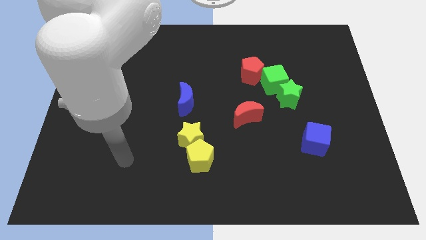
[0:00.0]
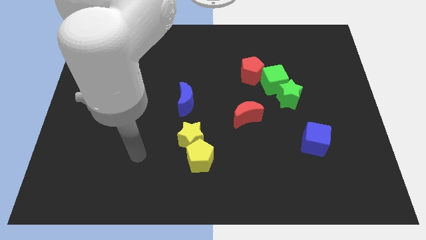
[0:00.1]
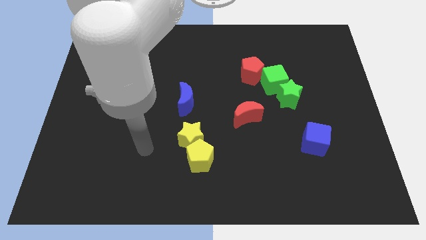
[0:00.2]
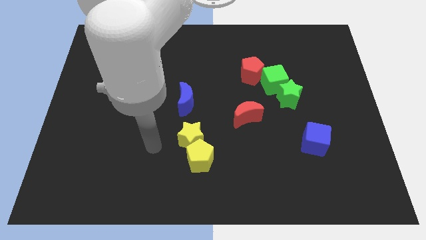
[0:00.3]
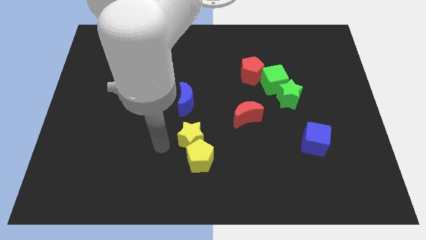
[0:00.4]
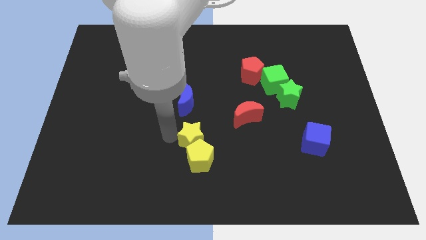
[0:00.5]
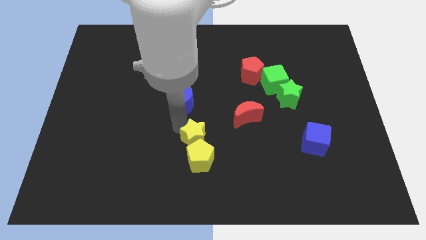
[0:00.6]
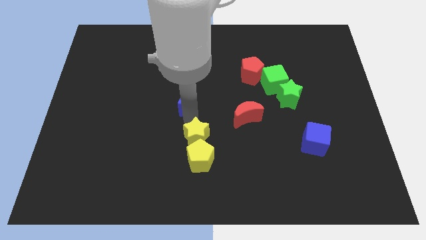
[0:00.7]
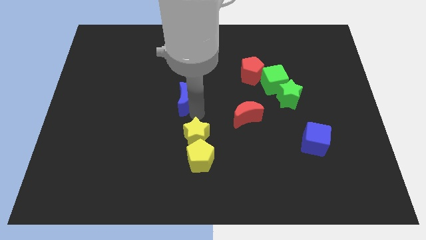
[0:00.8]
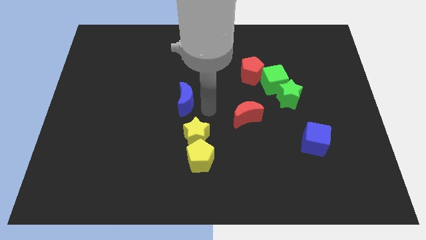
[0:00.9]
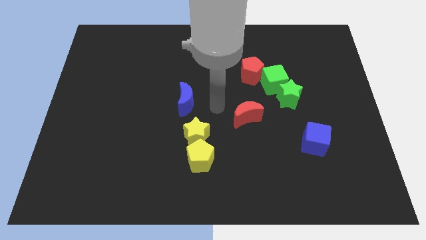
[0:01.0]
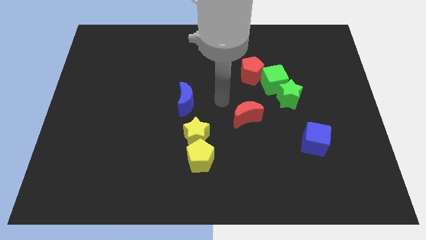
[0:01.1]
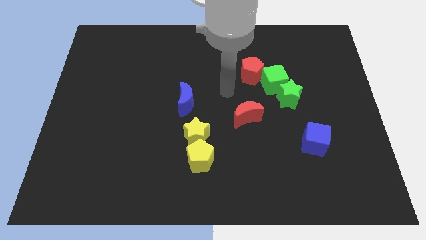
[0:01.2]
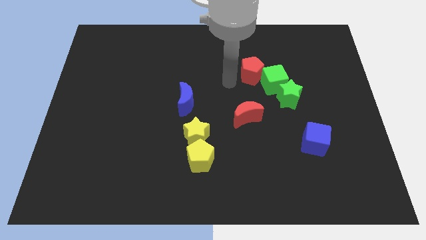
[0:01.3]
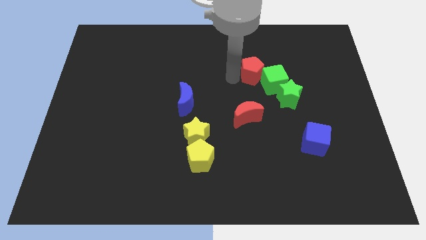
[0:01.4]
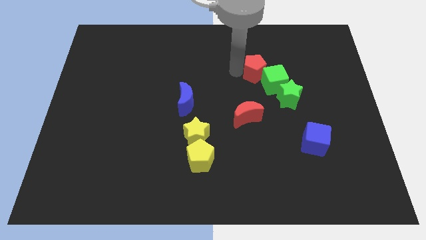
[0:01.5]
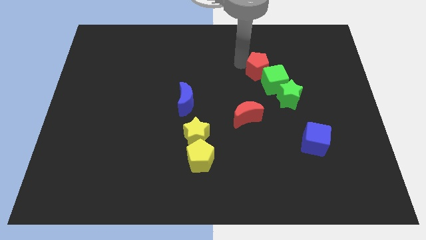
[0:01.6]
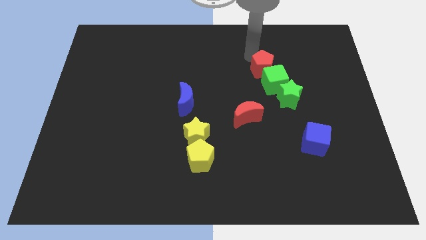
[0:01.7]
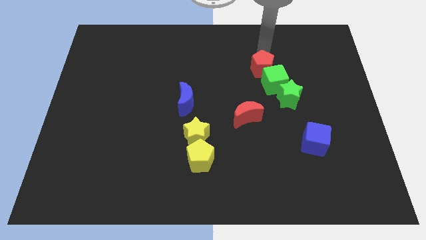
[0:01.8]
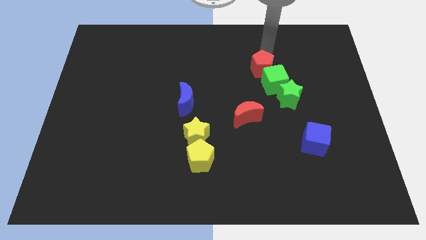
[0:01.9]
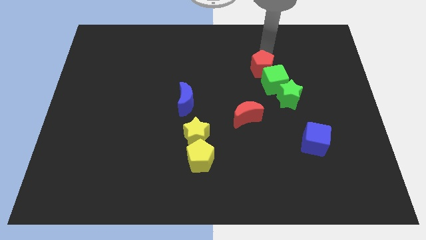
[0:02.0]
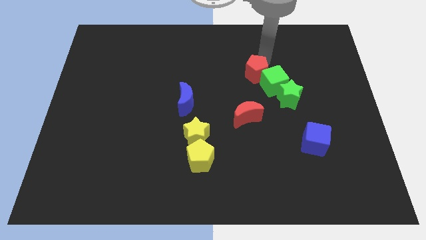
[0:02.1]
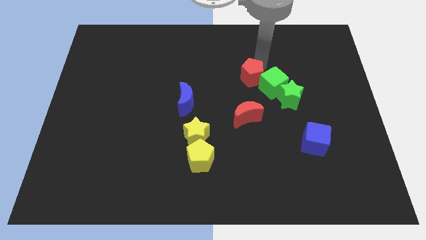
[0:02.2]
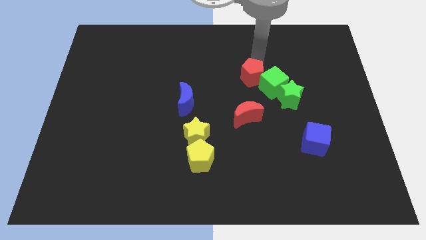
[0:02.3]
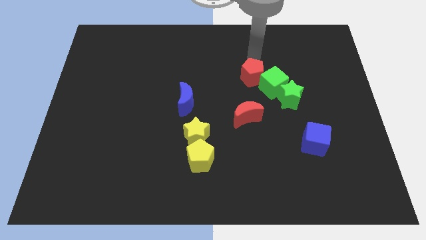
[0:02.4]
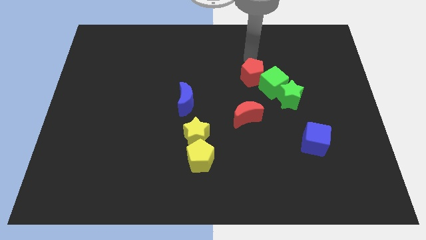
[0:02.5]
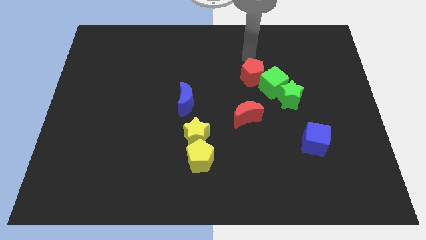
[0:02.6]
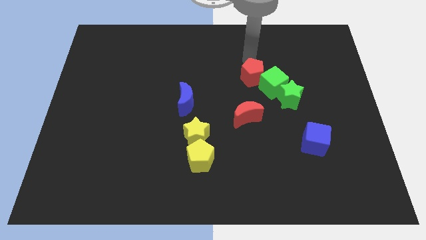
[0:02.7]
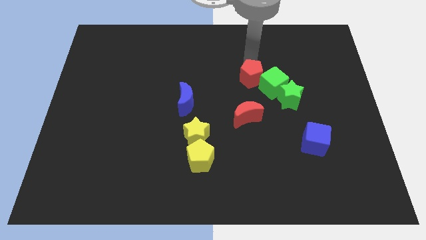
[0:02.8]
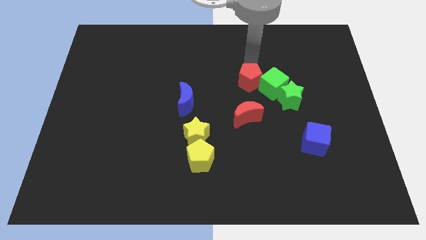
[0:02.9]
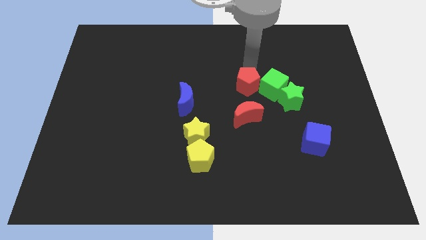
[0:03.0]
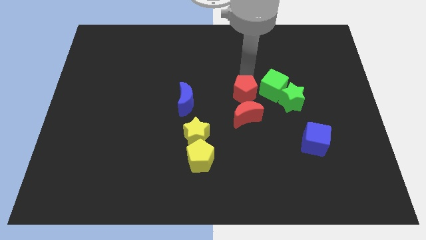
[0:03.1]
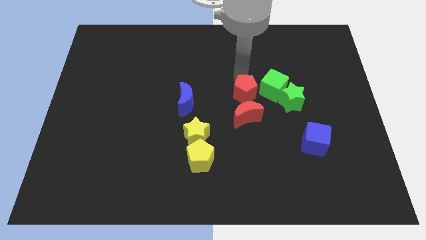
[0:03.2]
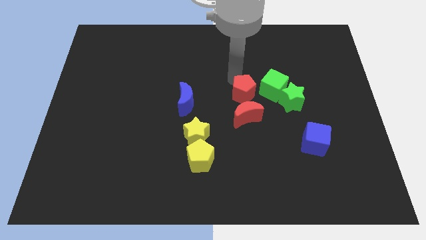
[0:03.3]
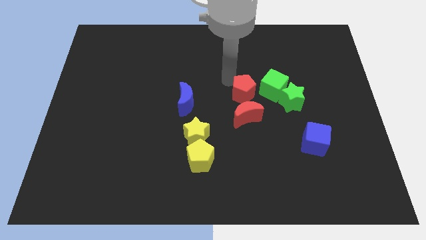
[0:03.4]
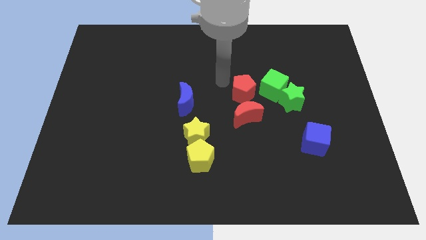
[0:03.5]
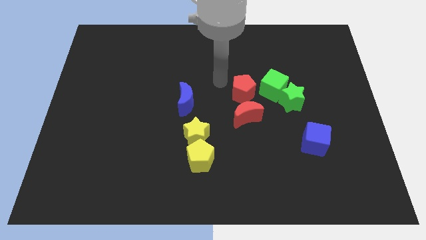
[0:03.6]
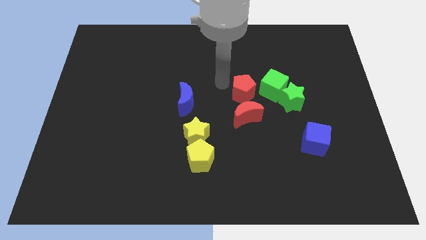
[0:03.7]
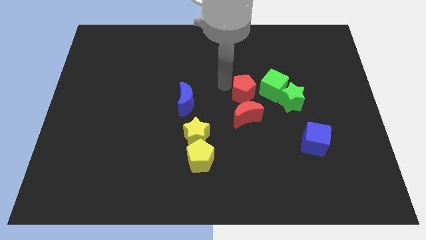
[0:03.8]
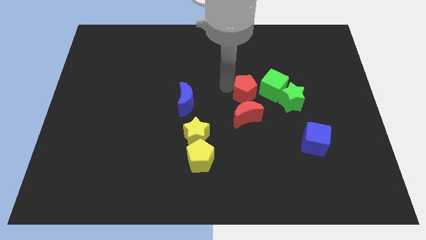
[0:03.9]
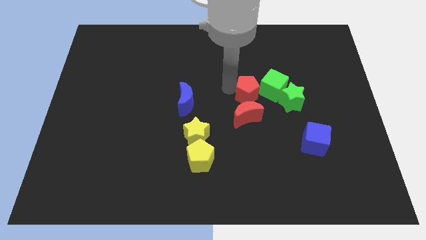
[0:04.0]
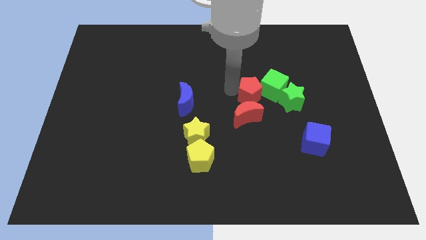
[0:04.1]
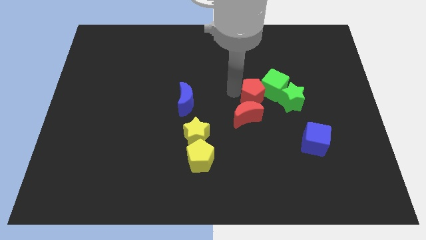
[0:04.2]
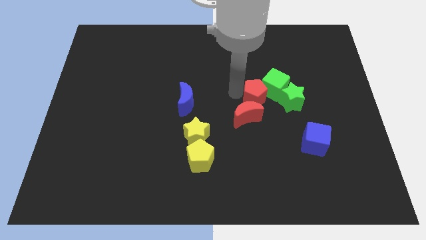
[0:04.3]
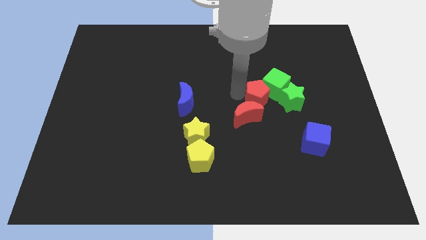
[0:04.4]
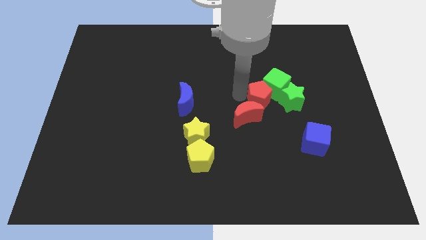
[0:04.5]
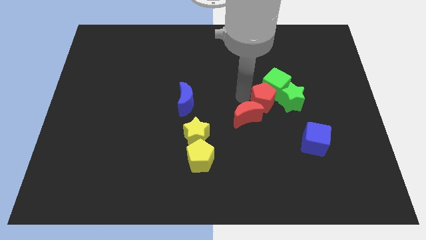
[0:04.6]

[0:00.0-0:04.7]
slide the red pentagon diagonally down and right a little

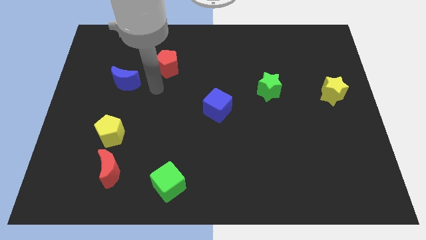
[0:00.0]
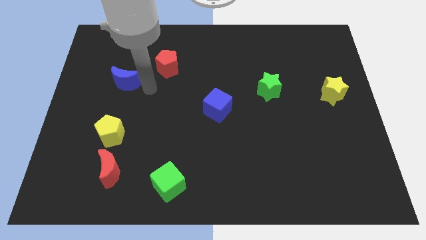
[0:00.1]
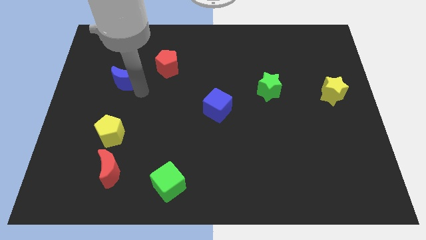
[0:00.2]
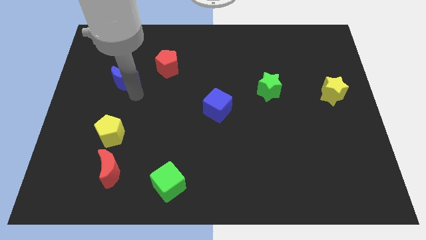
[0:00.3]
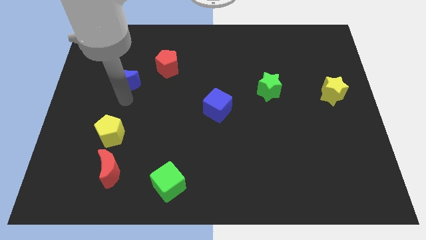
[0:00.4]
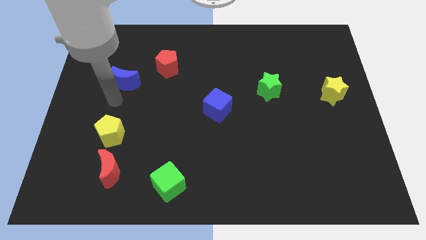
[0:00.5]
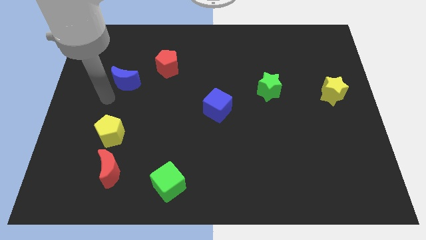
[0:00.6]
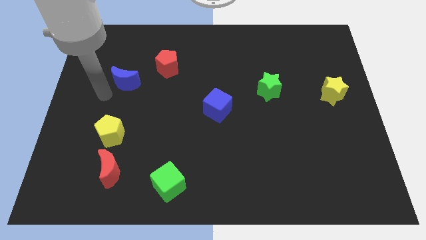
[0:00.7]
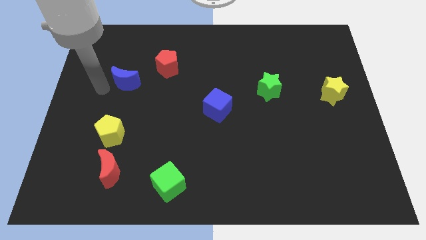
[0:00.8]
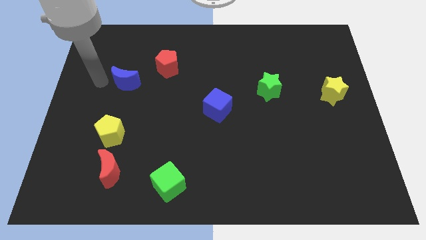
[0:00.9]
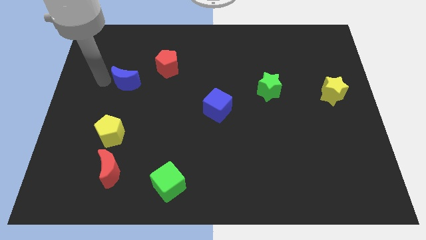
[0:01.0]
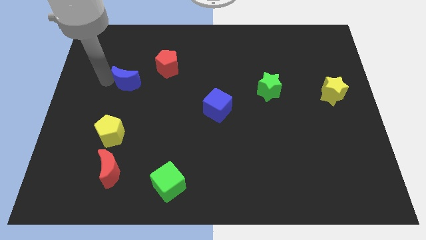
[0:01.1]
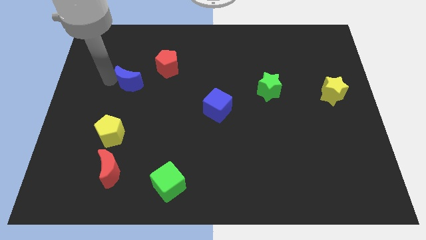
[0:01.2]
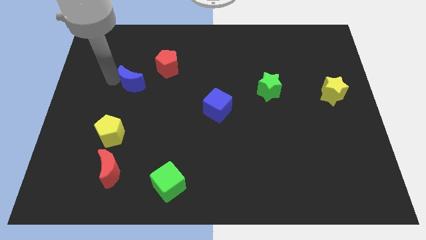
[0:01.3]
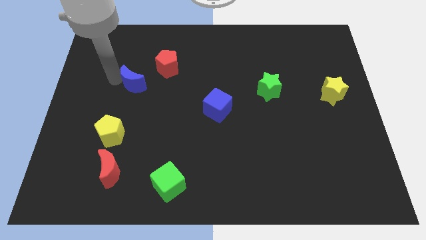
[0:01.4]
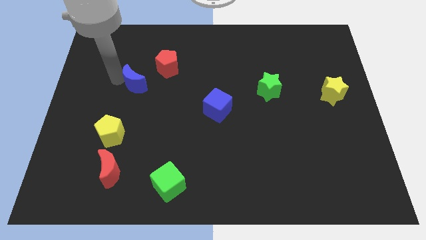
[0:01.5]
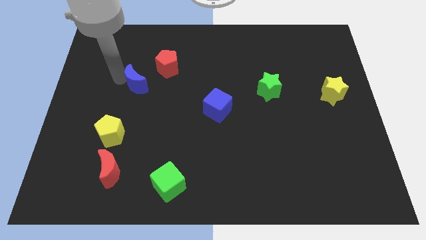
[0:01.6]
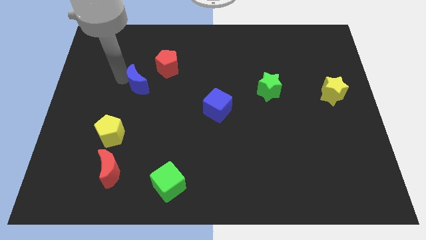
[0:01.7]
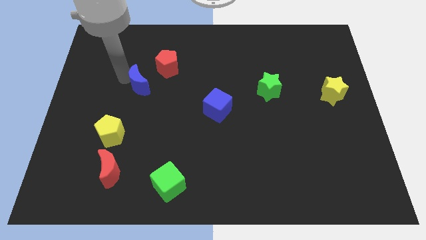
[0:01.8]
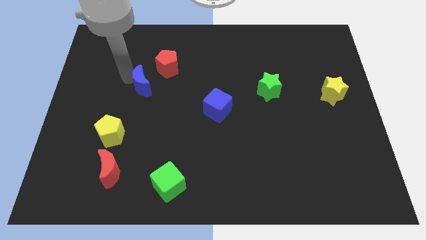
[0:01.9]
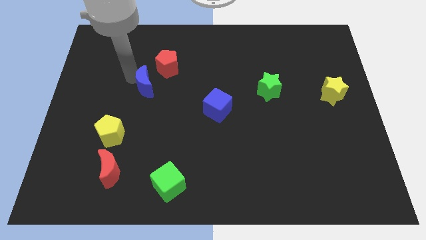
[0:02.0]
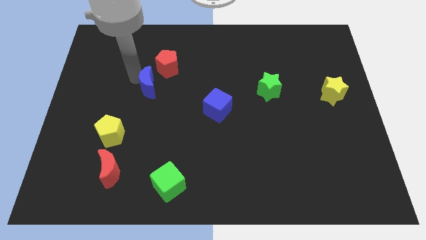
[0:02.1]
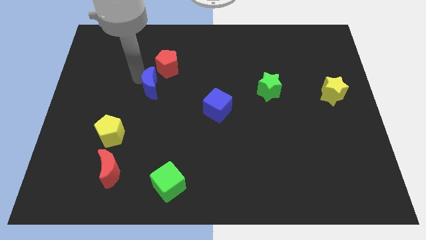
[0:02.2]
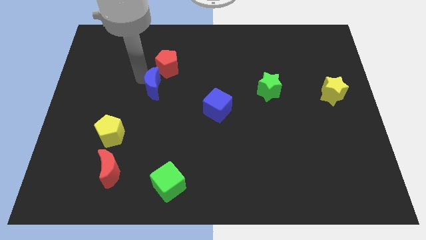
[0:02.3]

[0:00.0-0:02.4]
push the blue moon to the right a bit

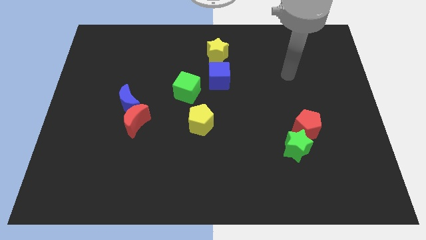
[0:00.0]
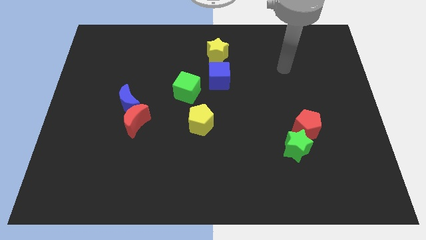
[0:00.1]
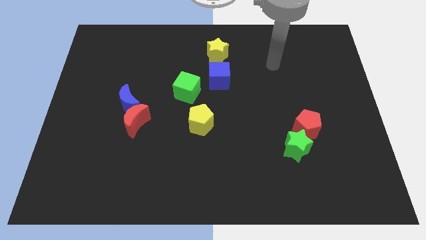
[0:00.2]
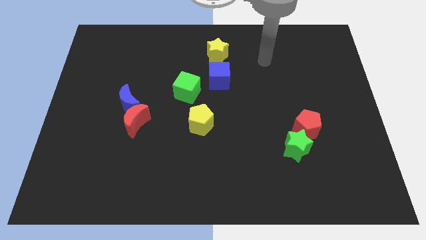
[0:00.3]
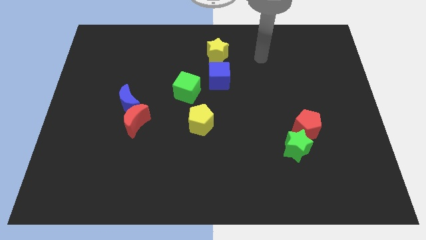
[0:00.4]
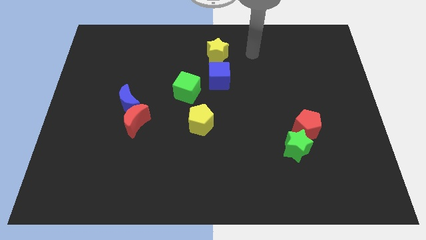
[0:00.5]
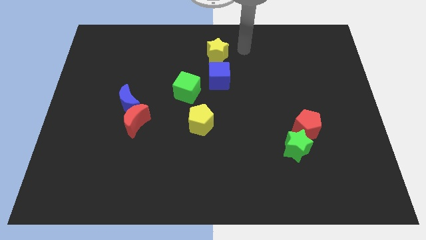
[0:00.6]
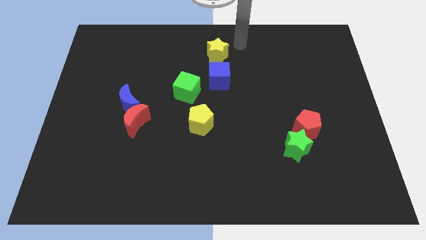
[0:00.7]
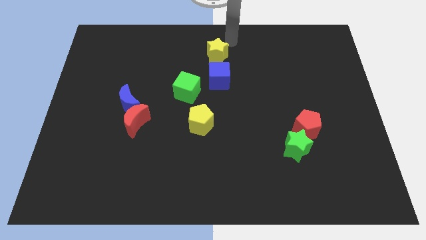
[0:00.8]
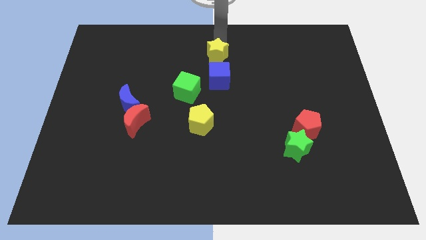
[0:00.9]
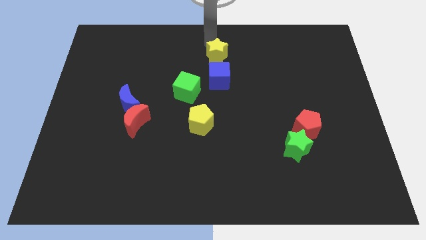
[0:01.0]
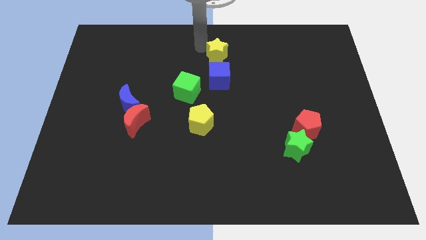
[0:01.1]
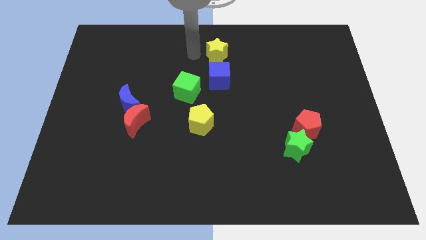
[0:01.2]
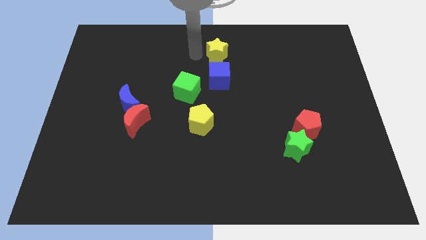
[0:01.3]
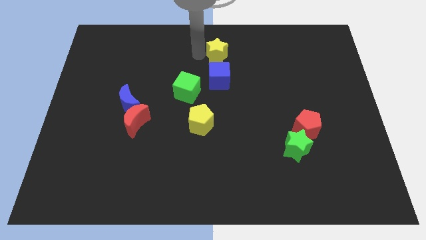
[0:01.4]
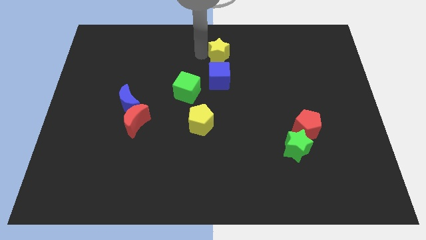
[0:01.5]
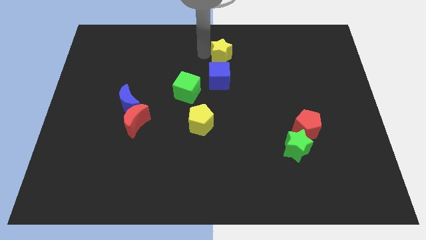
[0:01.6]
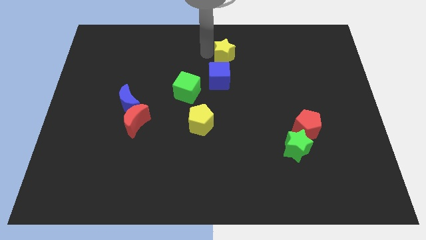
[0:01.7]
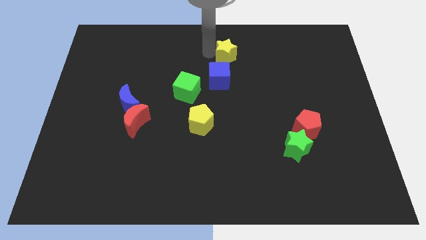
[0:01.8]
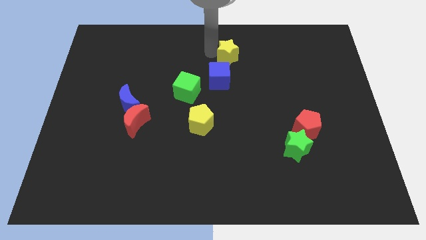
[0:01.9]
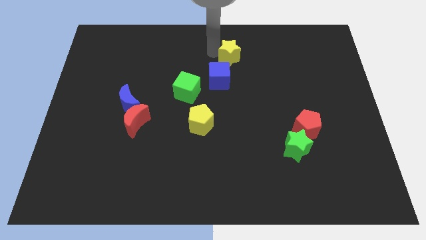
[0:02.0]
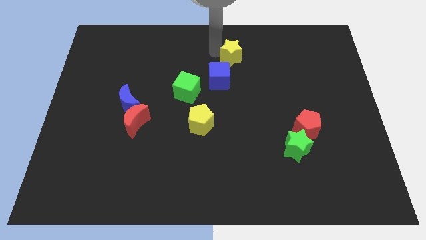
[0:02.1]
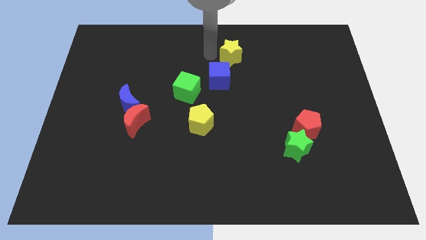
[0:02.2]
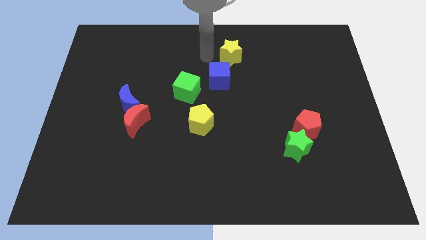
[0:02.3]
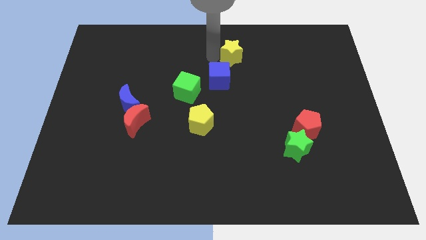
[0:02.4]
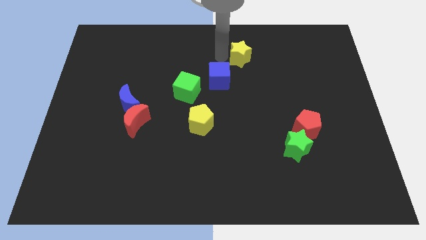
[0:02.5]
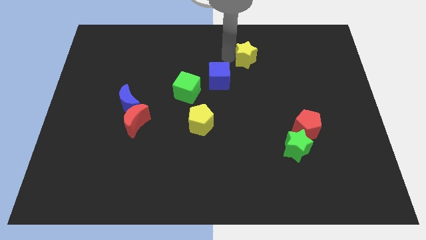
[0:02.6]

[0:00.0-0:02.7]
slightly slide the yellow star right
